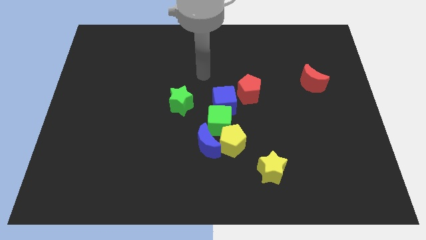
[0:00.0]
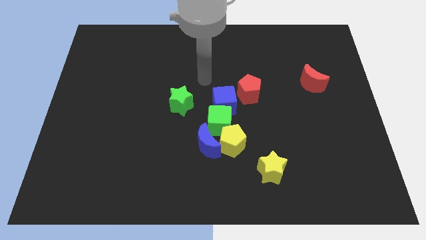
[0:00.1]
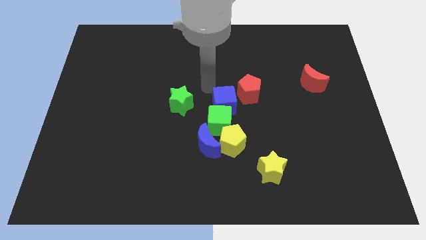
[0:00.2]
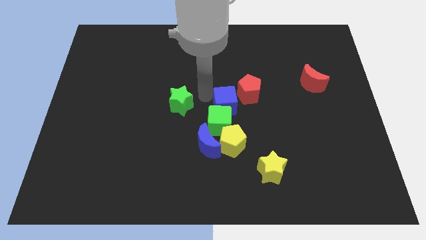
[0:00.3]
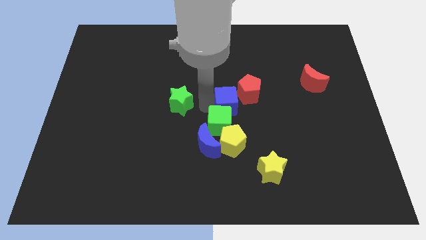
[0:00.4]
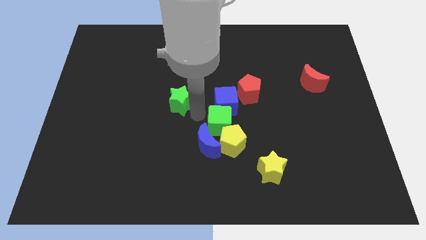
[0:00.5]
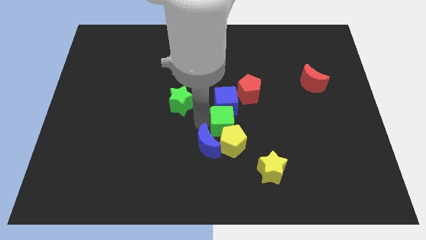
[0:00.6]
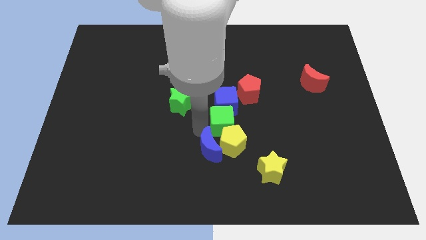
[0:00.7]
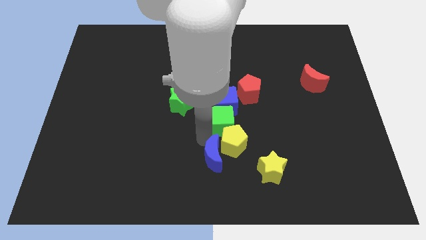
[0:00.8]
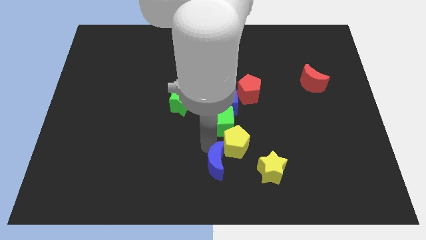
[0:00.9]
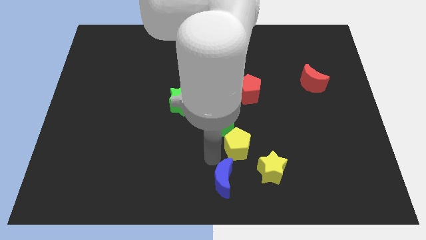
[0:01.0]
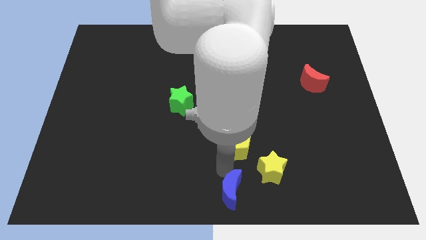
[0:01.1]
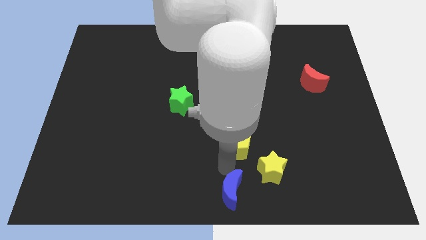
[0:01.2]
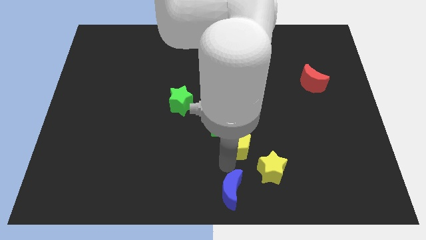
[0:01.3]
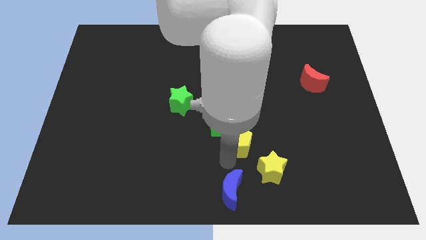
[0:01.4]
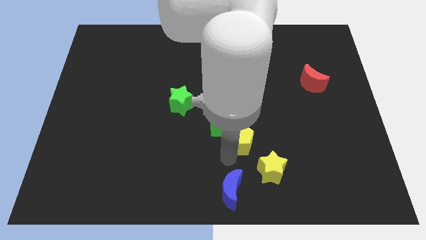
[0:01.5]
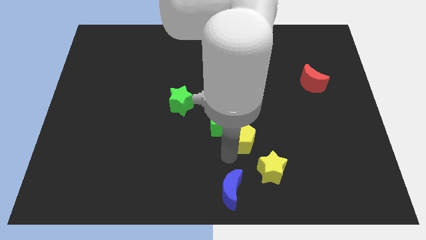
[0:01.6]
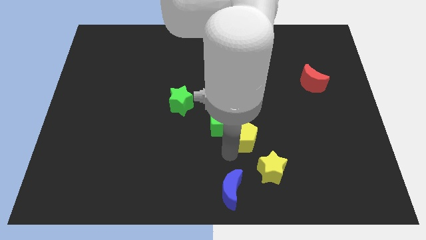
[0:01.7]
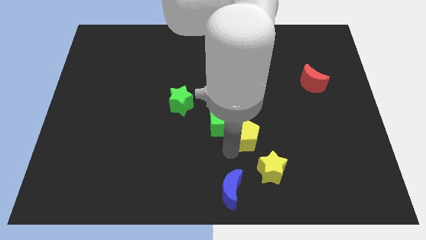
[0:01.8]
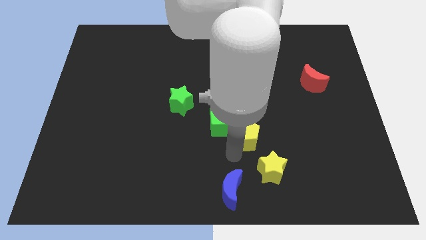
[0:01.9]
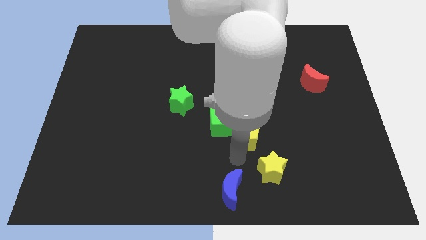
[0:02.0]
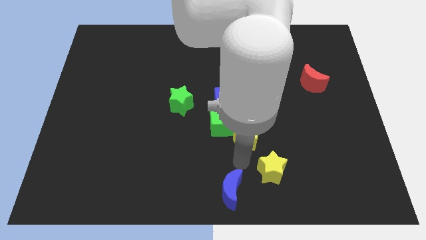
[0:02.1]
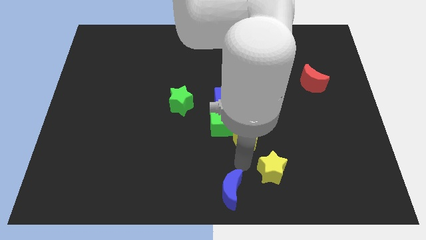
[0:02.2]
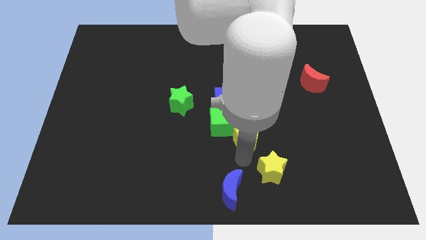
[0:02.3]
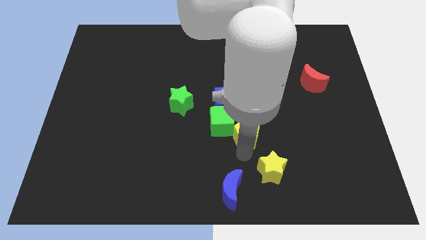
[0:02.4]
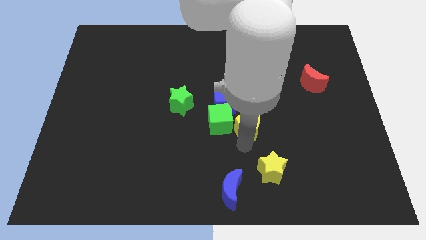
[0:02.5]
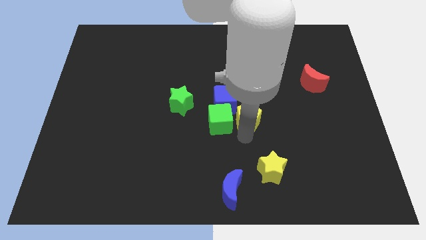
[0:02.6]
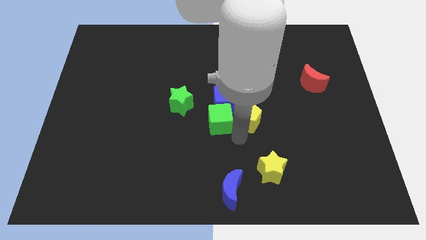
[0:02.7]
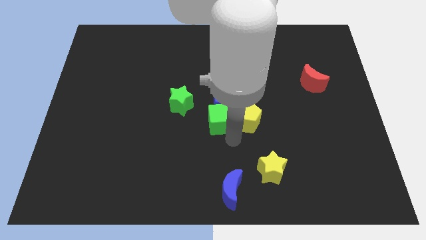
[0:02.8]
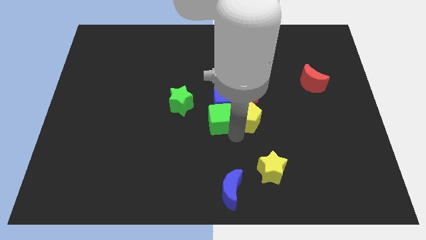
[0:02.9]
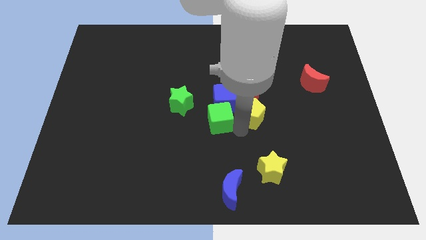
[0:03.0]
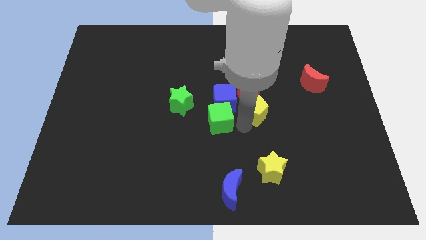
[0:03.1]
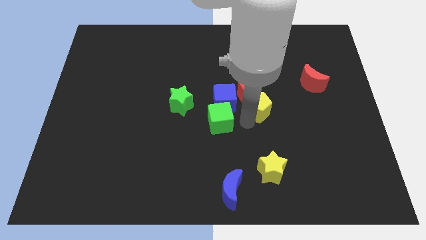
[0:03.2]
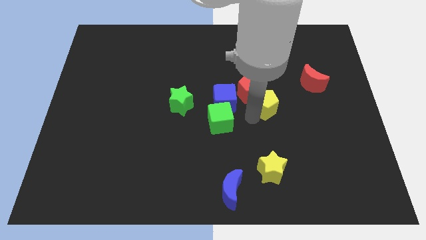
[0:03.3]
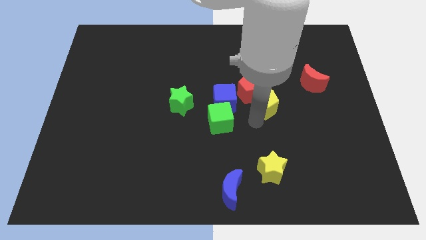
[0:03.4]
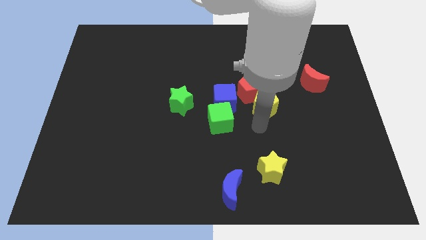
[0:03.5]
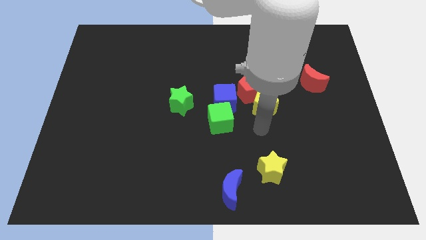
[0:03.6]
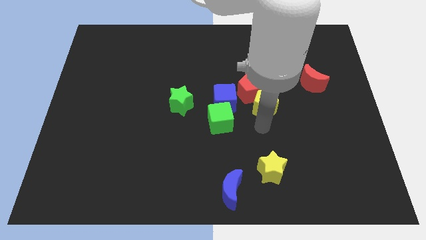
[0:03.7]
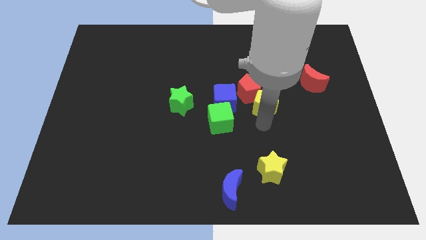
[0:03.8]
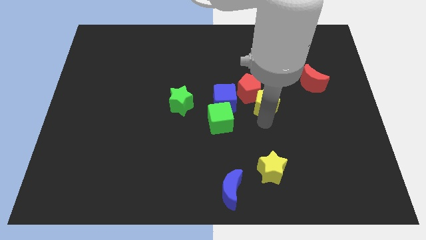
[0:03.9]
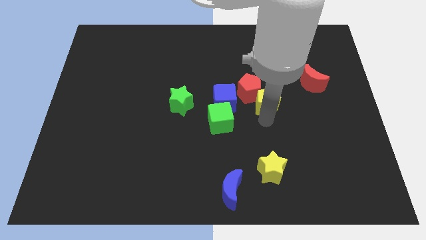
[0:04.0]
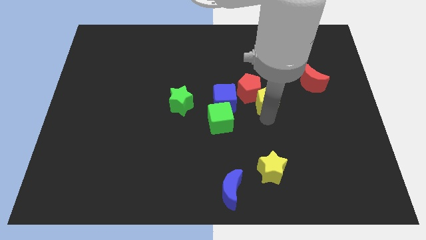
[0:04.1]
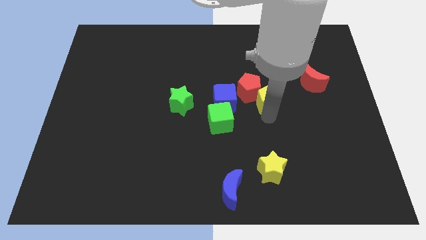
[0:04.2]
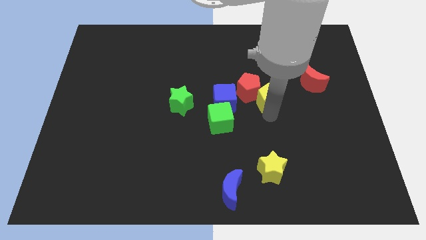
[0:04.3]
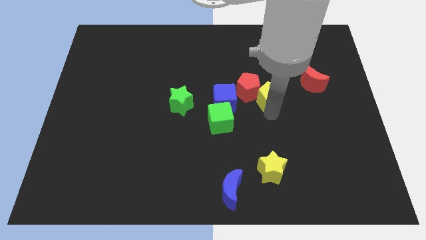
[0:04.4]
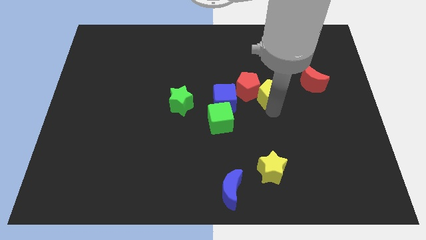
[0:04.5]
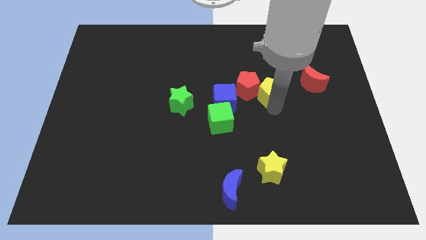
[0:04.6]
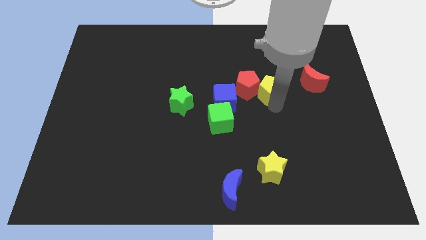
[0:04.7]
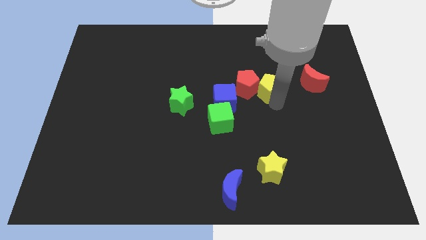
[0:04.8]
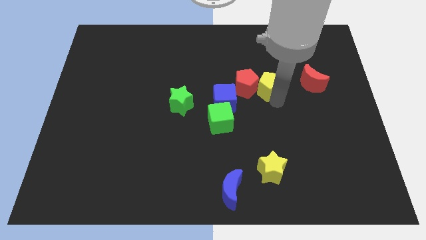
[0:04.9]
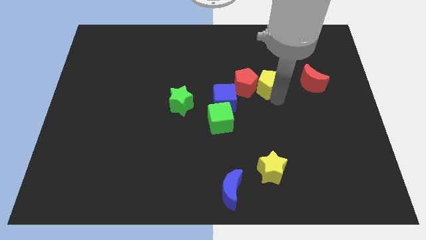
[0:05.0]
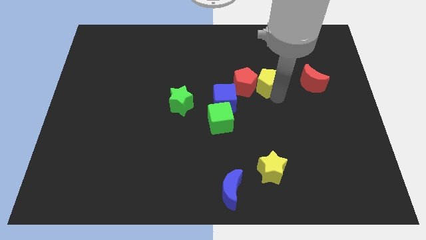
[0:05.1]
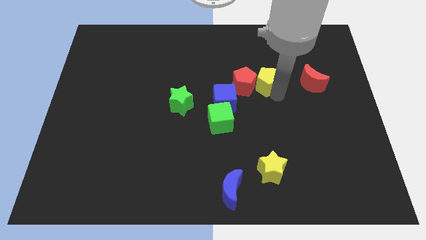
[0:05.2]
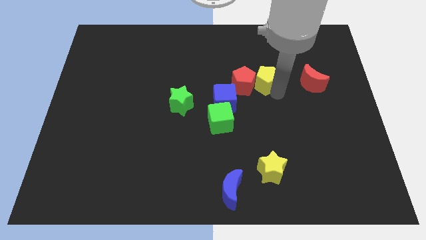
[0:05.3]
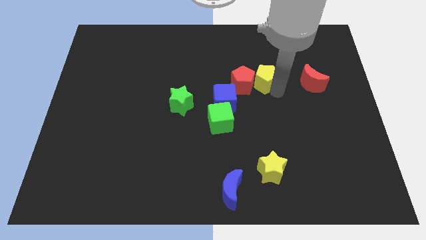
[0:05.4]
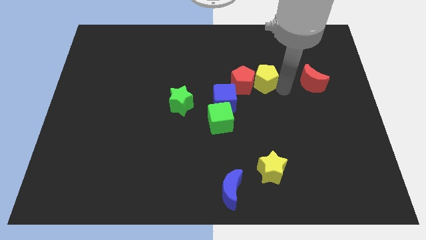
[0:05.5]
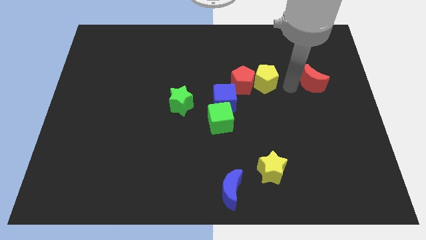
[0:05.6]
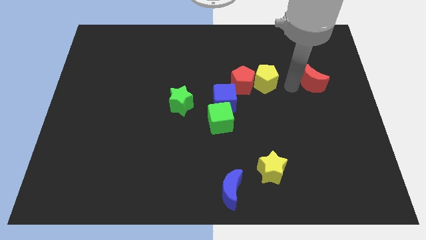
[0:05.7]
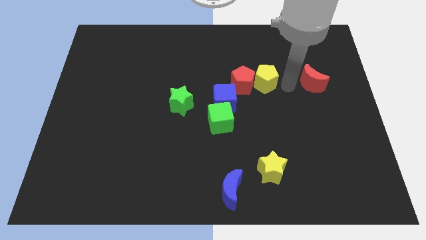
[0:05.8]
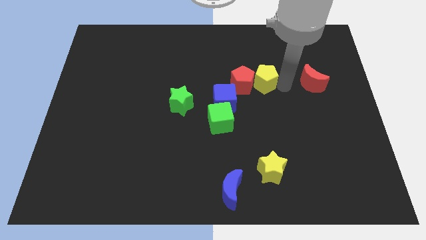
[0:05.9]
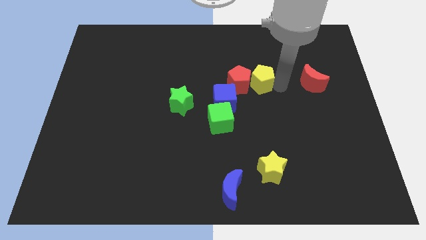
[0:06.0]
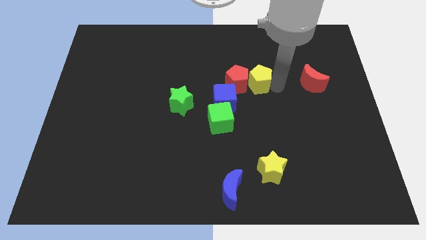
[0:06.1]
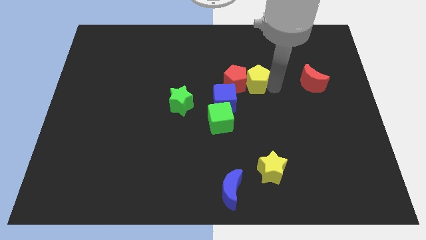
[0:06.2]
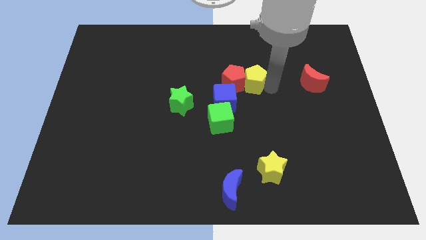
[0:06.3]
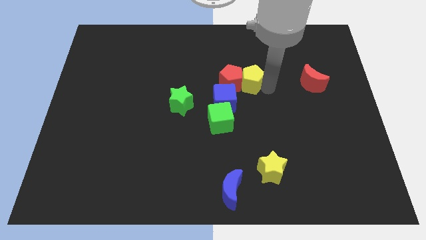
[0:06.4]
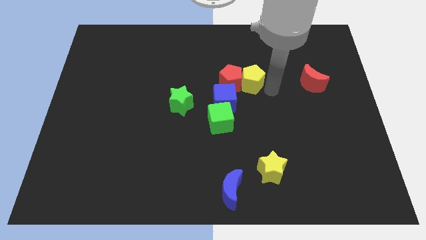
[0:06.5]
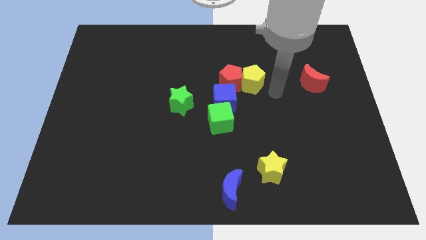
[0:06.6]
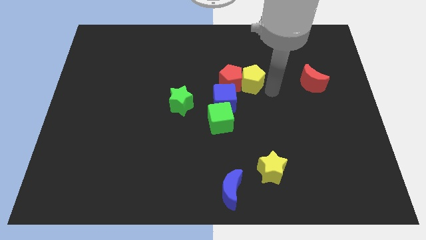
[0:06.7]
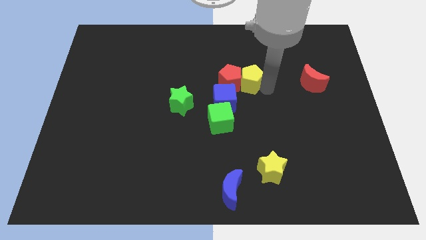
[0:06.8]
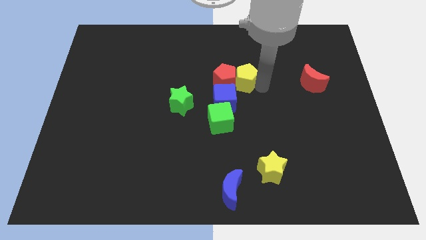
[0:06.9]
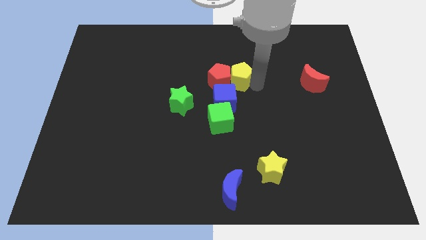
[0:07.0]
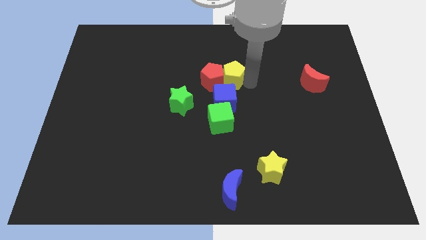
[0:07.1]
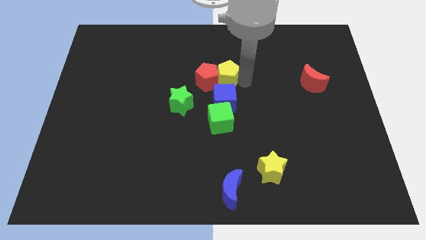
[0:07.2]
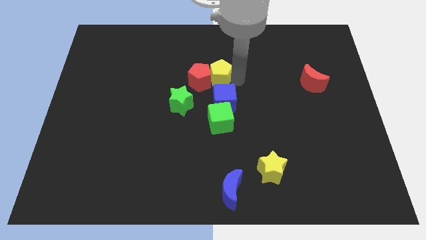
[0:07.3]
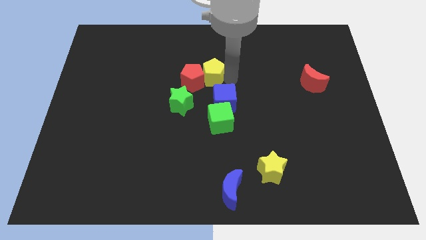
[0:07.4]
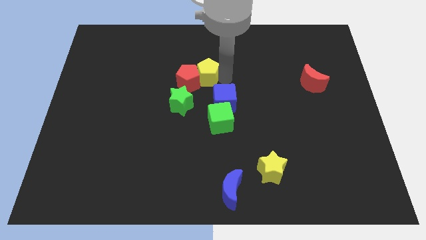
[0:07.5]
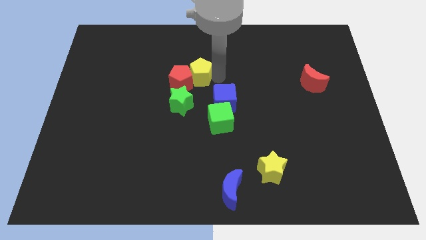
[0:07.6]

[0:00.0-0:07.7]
push the yellow pentagon to the top of the green star
